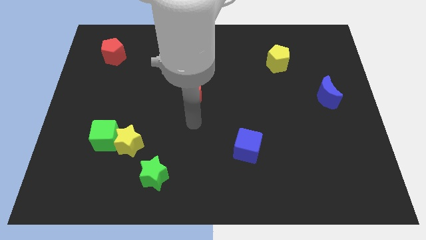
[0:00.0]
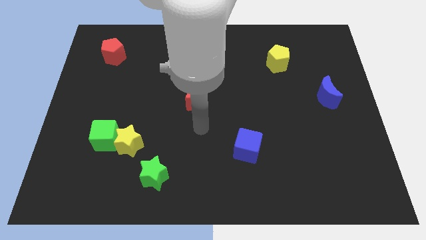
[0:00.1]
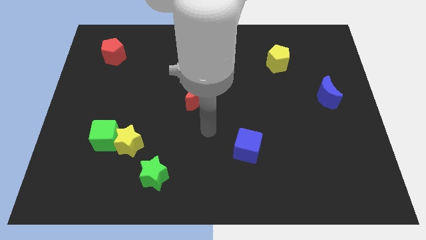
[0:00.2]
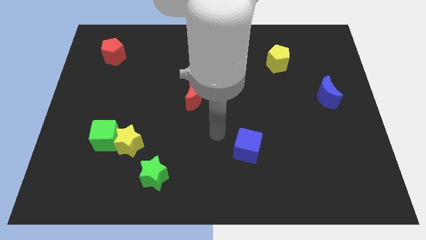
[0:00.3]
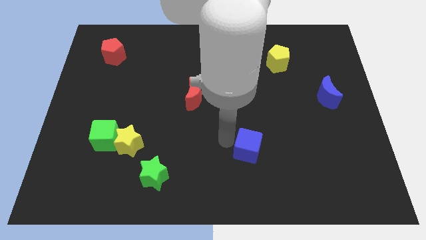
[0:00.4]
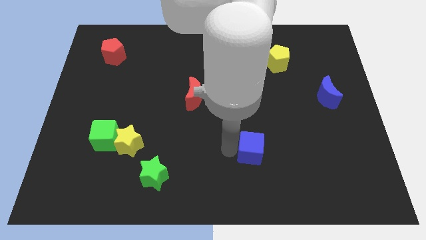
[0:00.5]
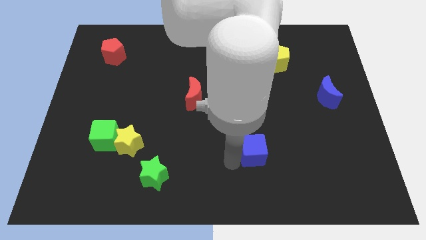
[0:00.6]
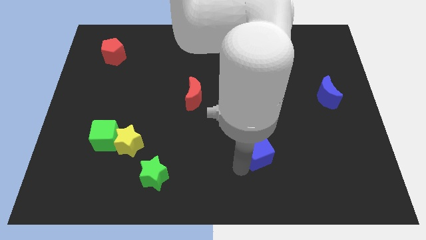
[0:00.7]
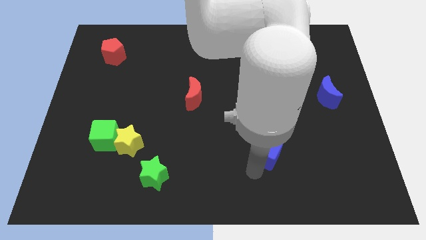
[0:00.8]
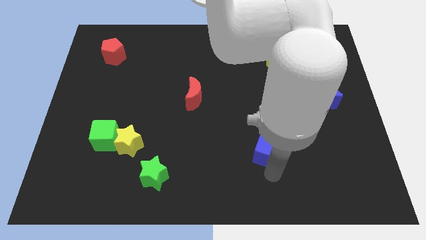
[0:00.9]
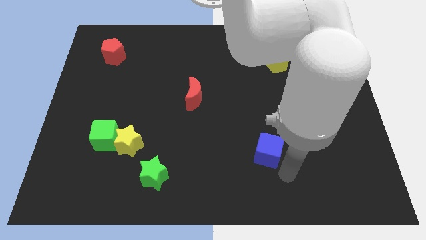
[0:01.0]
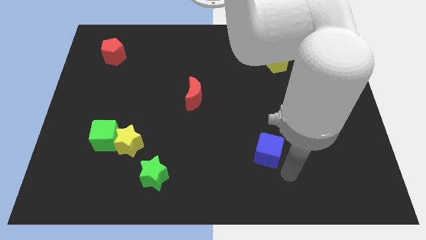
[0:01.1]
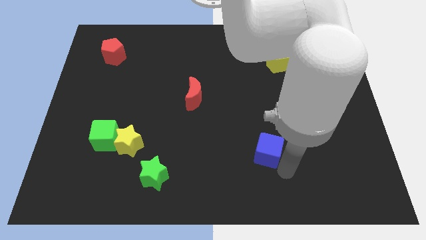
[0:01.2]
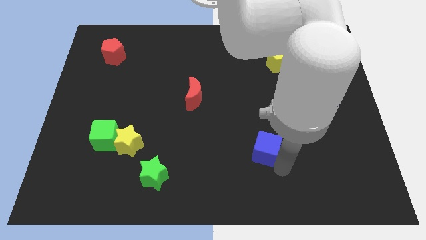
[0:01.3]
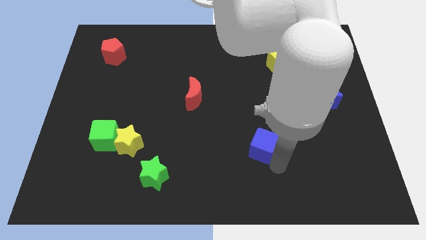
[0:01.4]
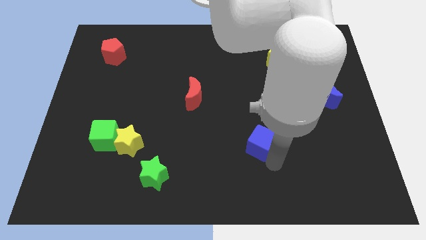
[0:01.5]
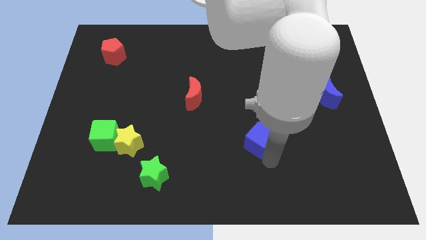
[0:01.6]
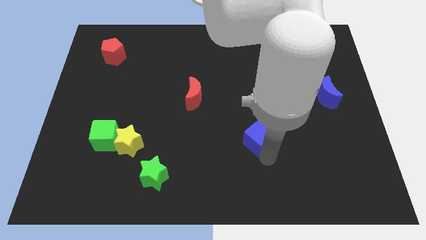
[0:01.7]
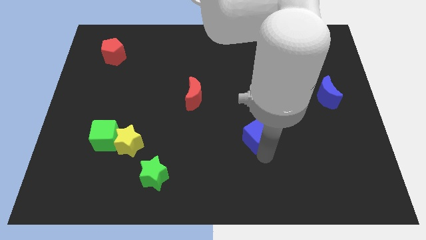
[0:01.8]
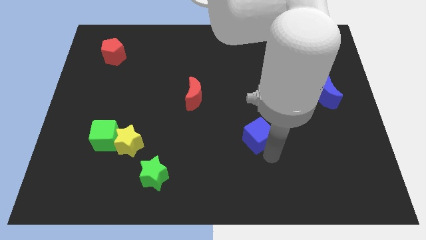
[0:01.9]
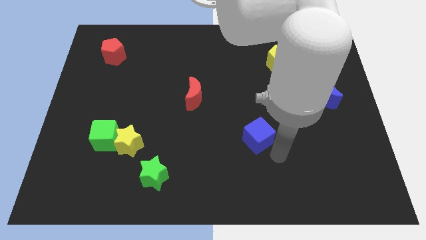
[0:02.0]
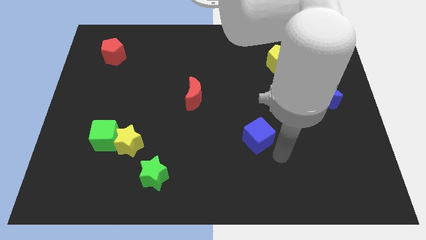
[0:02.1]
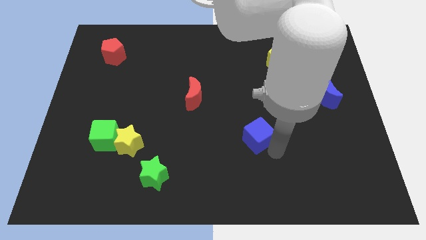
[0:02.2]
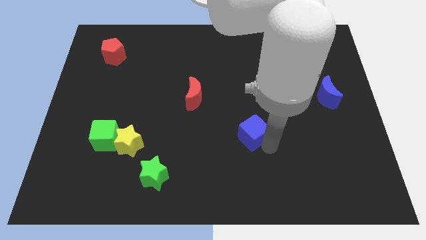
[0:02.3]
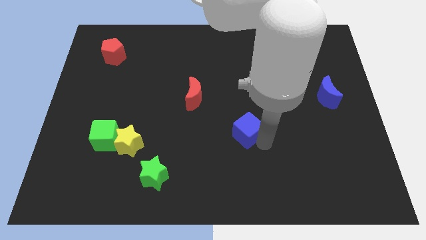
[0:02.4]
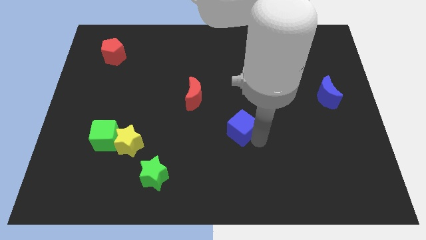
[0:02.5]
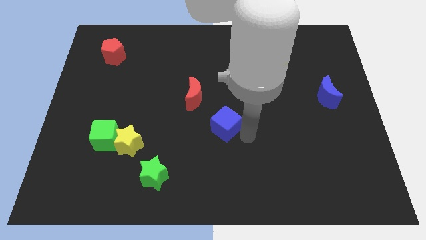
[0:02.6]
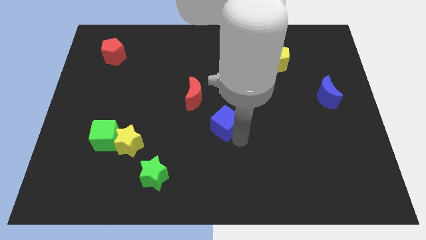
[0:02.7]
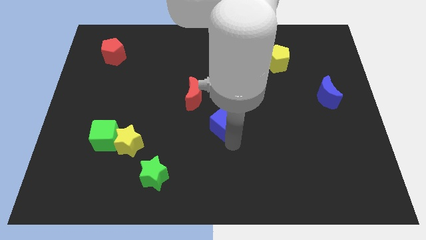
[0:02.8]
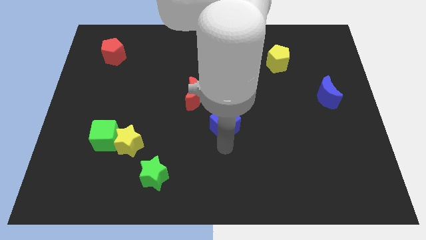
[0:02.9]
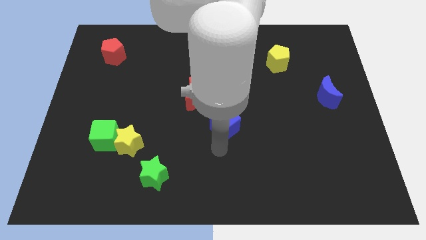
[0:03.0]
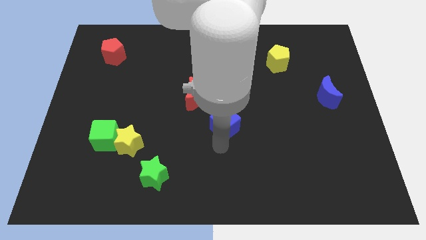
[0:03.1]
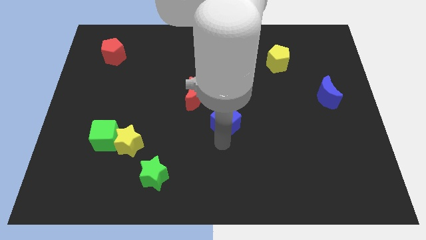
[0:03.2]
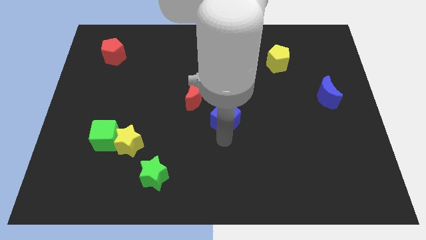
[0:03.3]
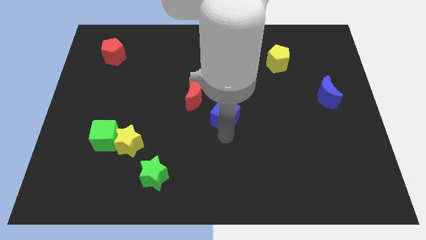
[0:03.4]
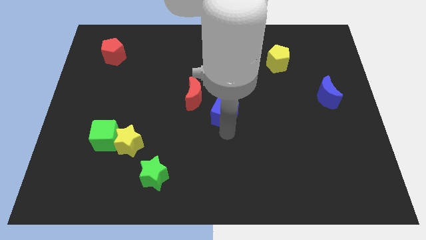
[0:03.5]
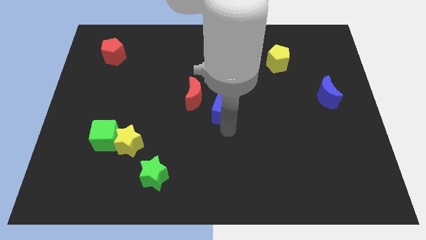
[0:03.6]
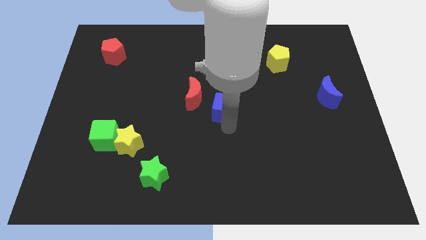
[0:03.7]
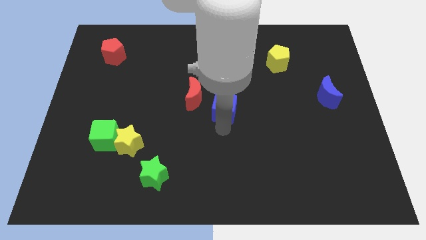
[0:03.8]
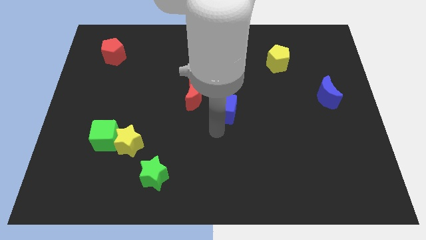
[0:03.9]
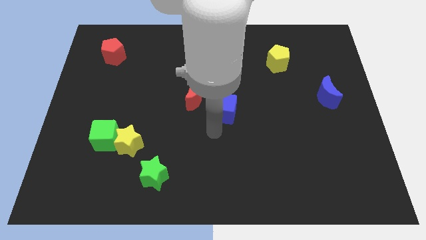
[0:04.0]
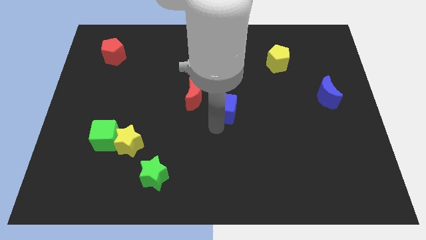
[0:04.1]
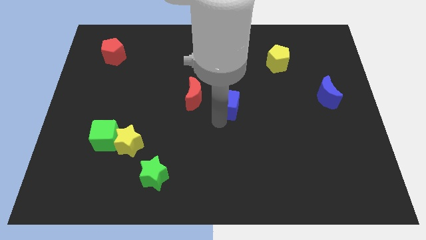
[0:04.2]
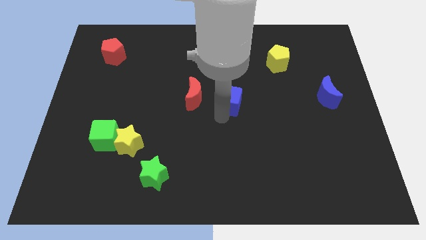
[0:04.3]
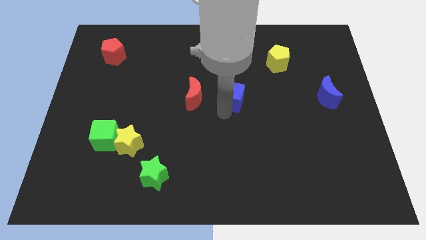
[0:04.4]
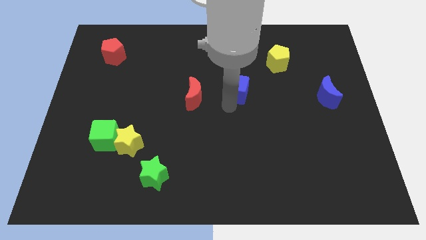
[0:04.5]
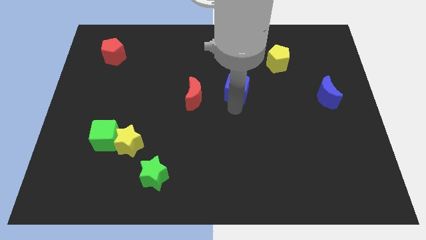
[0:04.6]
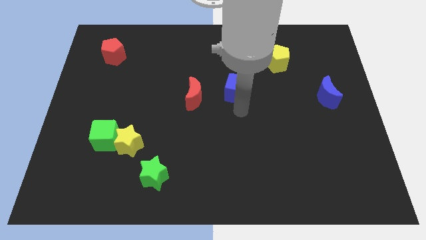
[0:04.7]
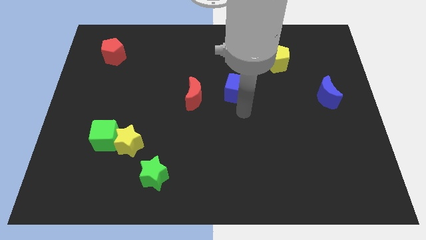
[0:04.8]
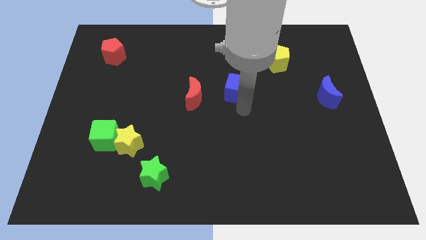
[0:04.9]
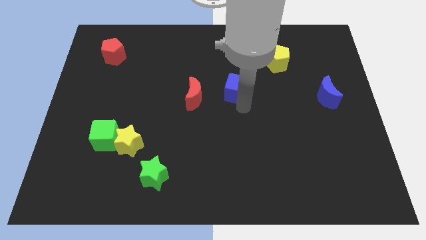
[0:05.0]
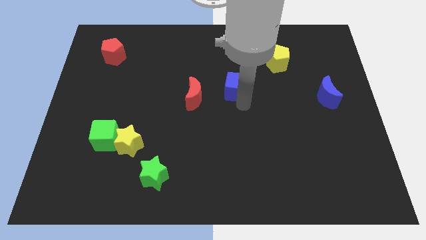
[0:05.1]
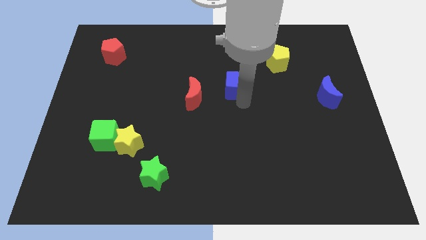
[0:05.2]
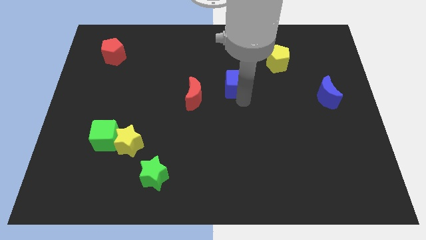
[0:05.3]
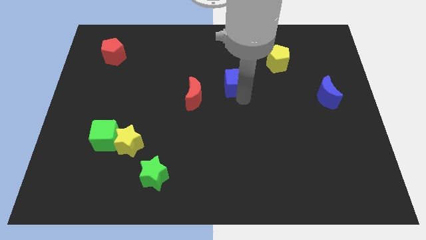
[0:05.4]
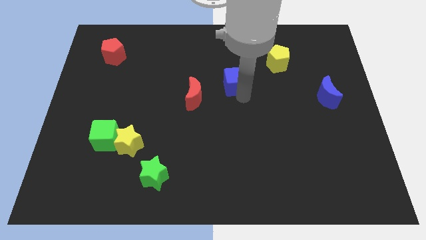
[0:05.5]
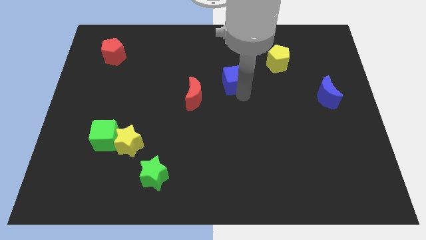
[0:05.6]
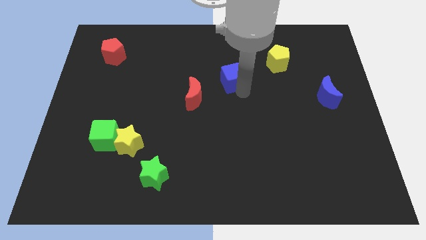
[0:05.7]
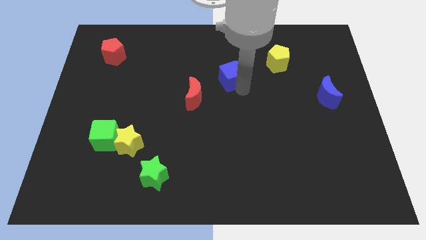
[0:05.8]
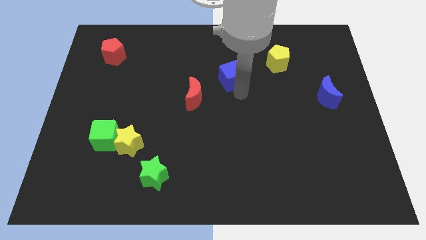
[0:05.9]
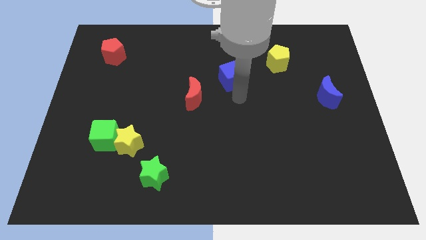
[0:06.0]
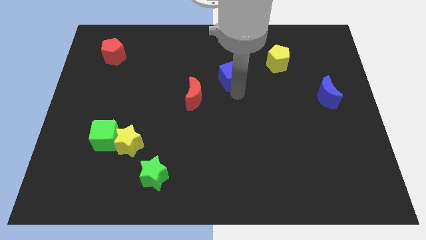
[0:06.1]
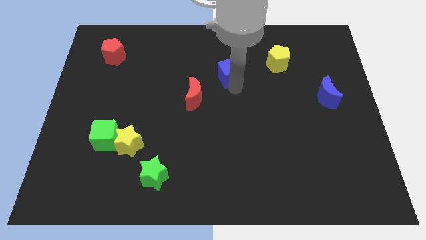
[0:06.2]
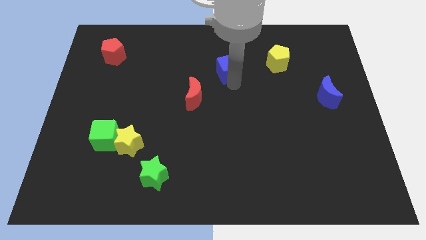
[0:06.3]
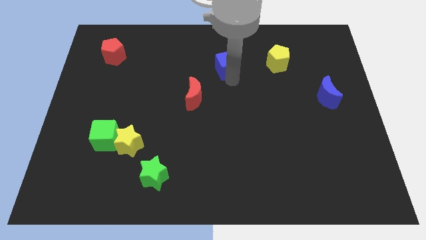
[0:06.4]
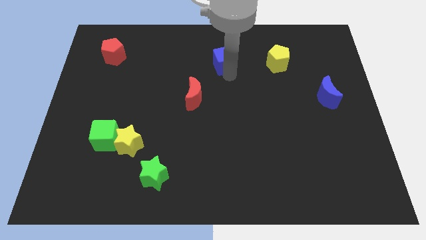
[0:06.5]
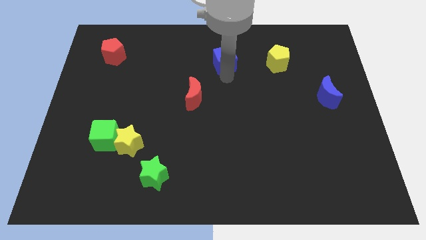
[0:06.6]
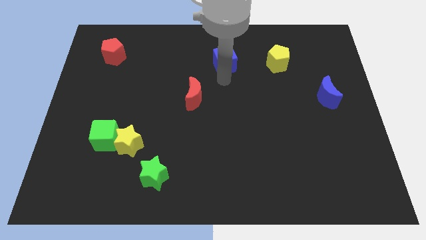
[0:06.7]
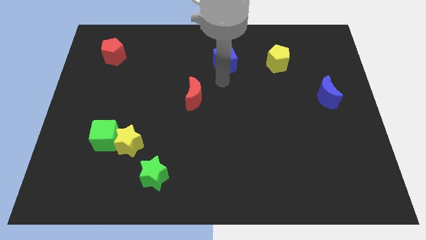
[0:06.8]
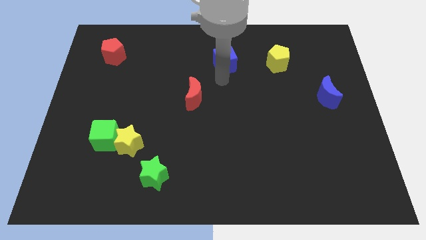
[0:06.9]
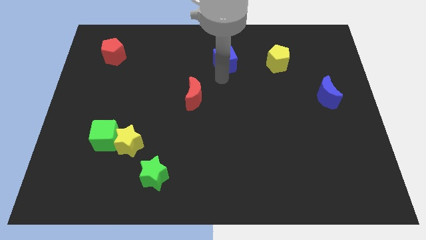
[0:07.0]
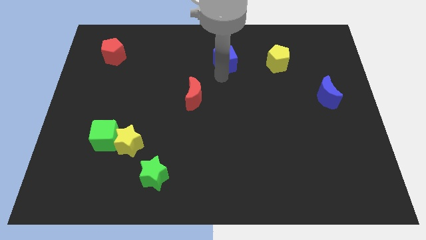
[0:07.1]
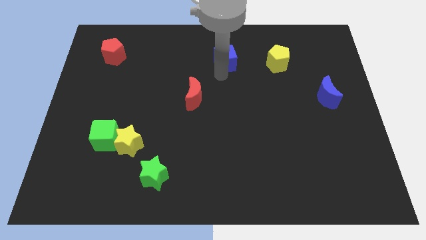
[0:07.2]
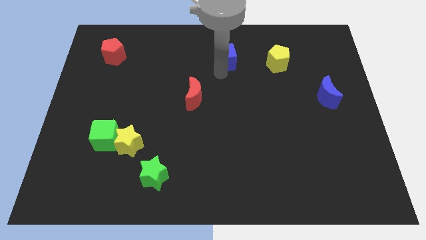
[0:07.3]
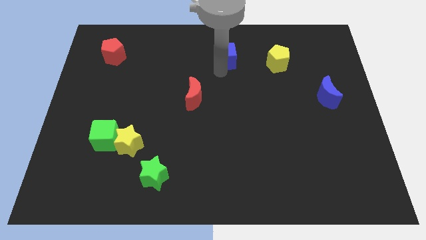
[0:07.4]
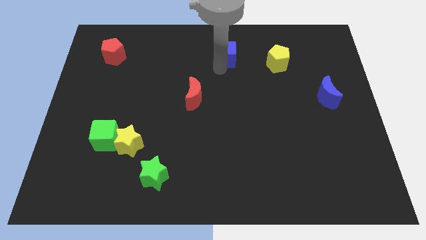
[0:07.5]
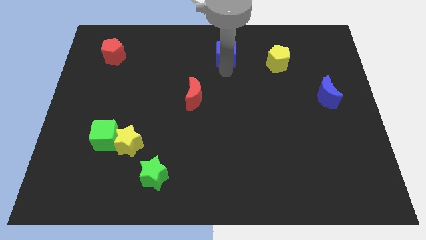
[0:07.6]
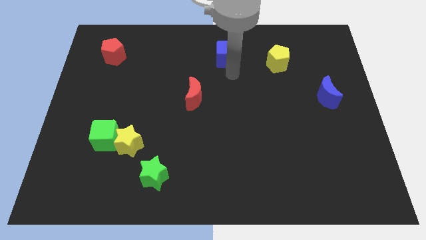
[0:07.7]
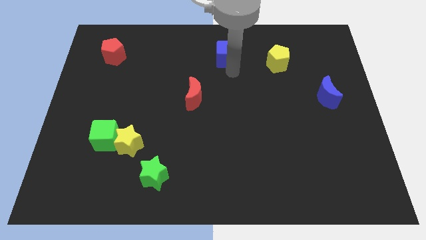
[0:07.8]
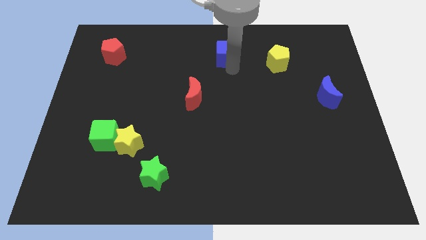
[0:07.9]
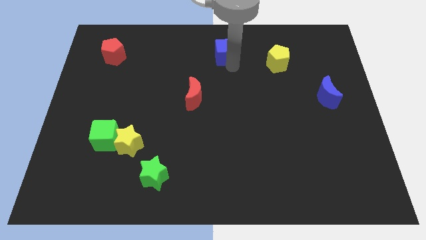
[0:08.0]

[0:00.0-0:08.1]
put the blue cube to the top
